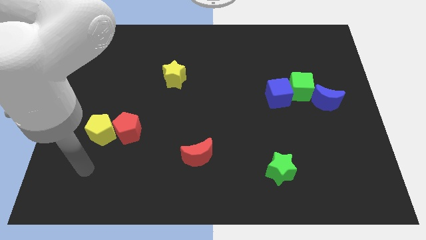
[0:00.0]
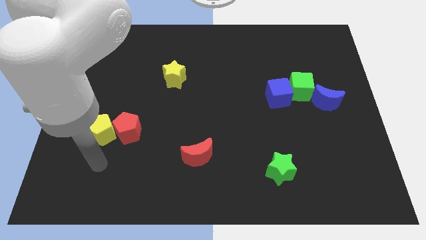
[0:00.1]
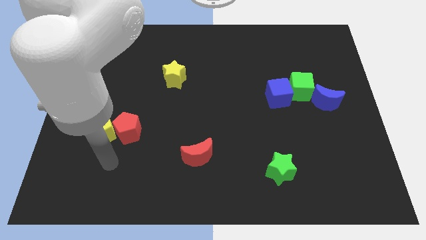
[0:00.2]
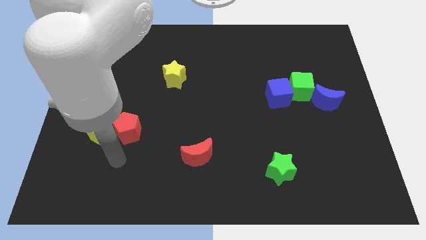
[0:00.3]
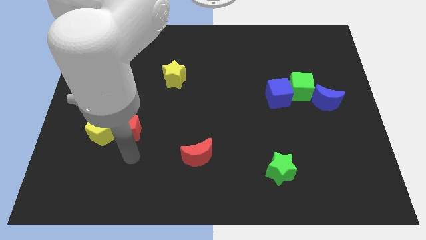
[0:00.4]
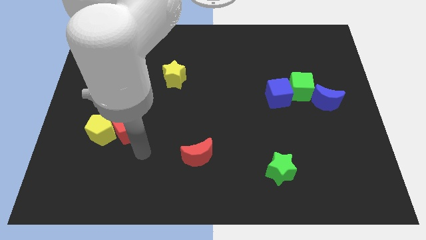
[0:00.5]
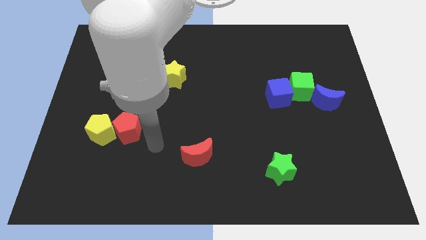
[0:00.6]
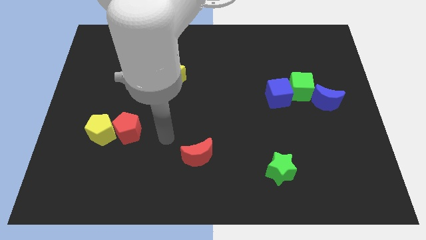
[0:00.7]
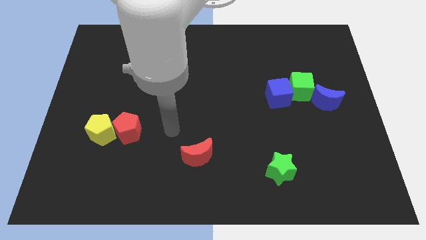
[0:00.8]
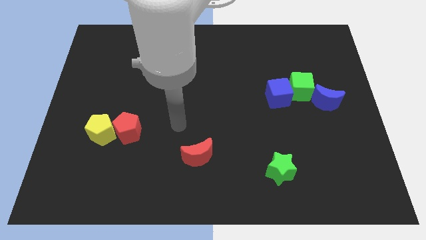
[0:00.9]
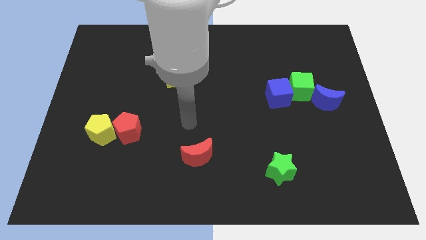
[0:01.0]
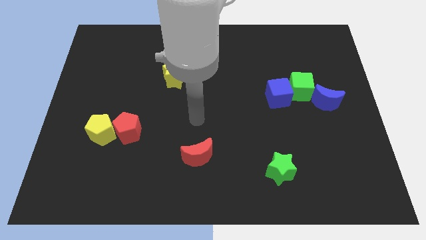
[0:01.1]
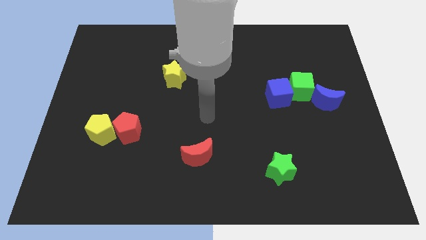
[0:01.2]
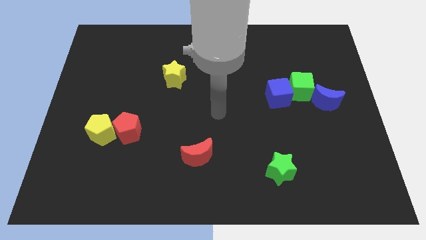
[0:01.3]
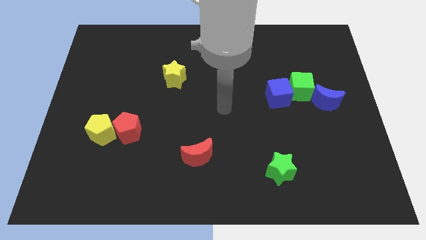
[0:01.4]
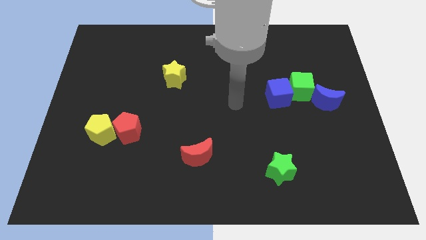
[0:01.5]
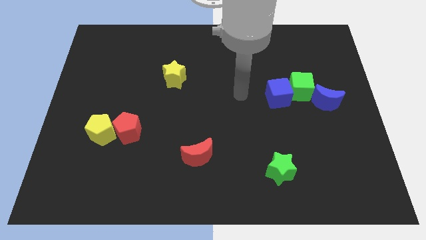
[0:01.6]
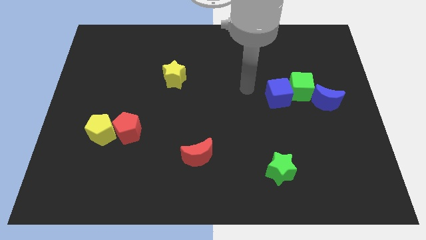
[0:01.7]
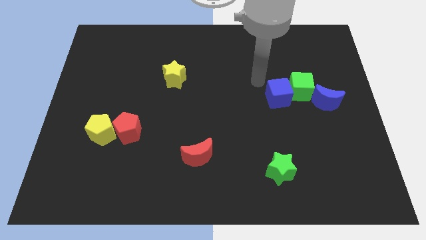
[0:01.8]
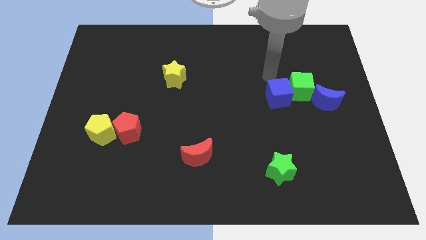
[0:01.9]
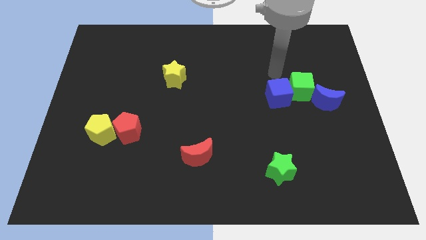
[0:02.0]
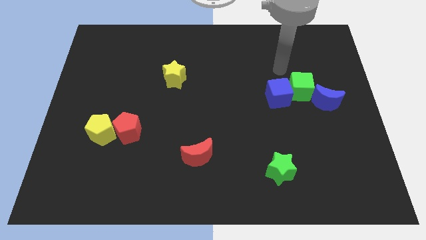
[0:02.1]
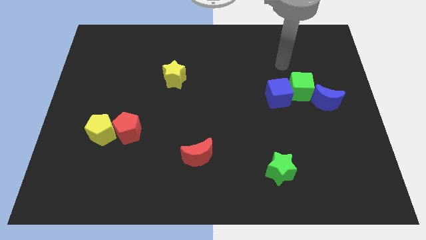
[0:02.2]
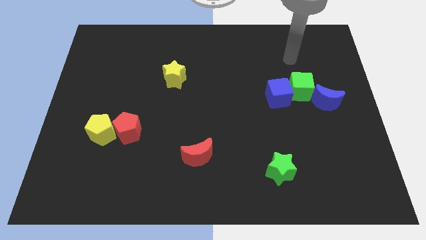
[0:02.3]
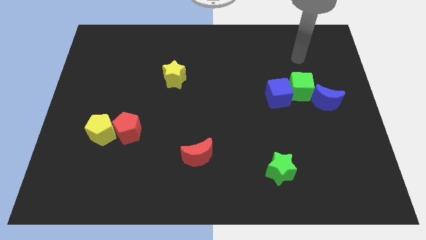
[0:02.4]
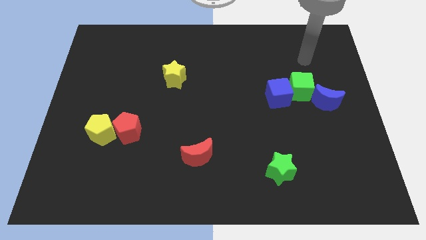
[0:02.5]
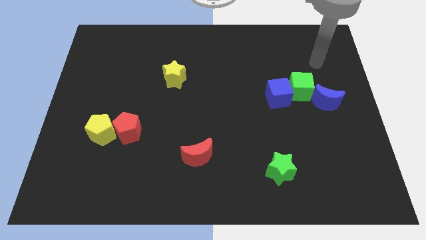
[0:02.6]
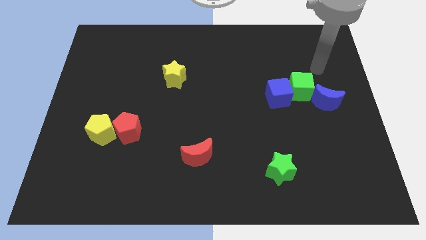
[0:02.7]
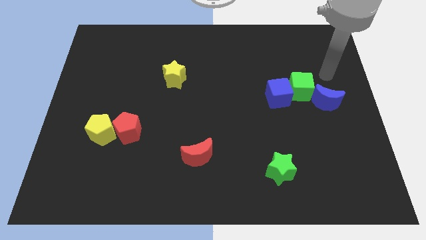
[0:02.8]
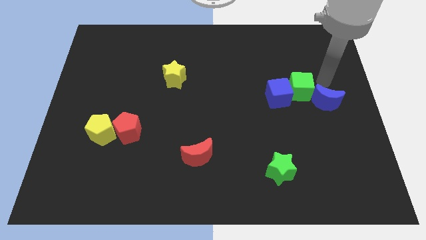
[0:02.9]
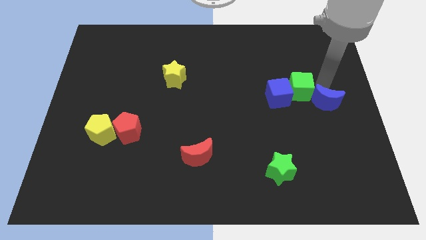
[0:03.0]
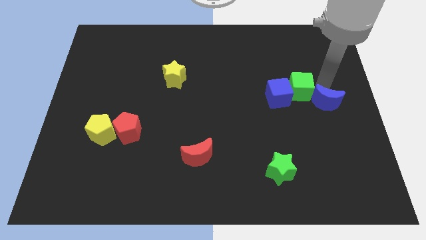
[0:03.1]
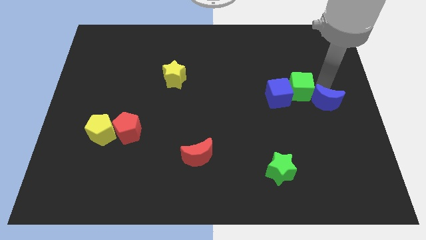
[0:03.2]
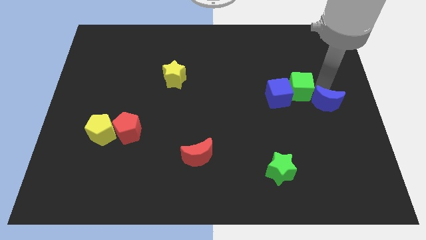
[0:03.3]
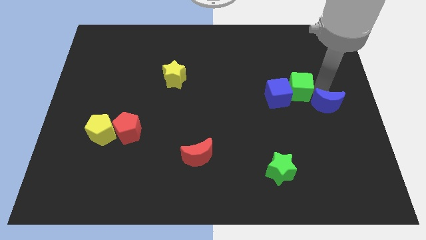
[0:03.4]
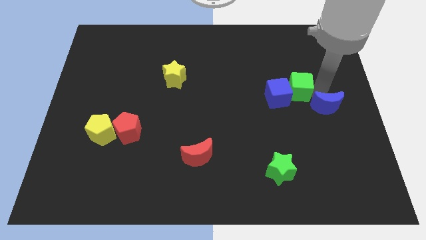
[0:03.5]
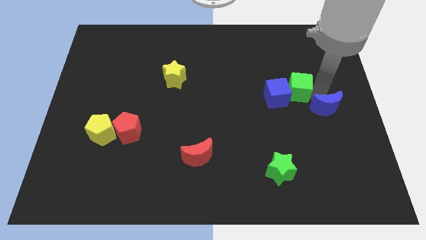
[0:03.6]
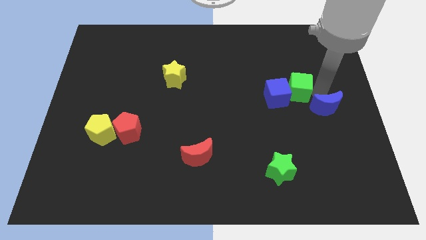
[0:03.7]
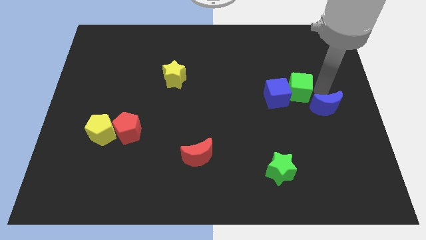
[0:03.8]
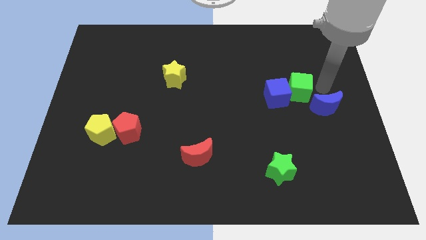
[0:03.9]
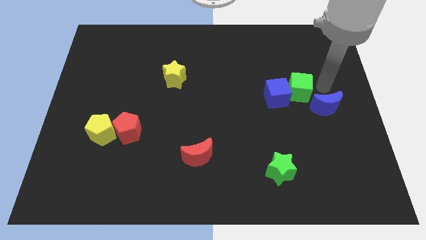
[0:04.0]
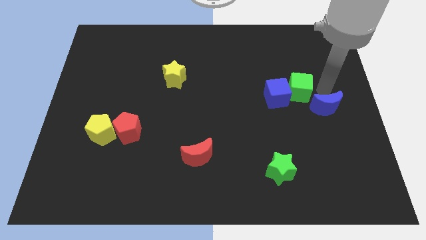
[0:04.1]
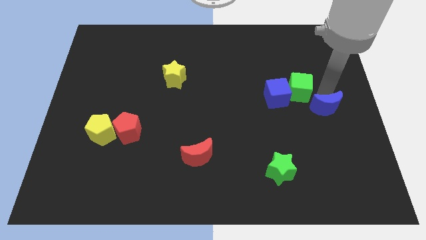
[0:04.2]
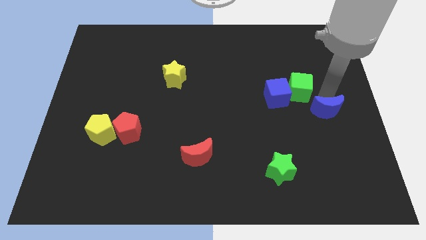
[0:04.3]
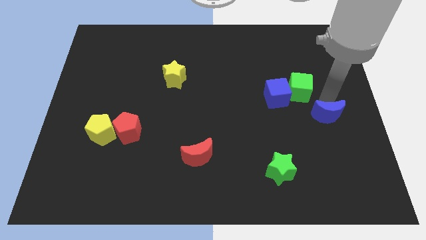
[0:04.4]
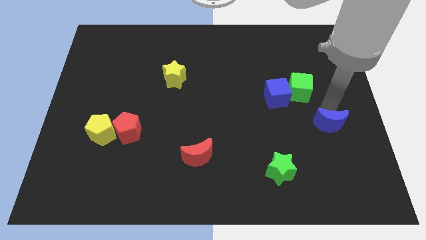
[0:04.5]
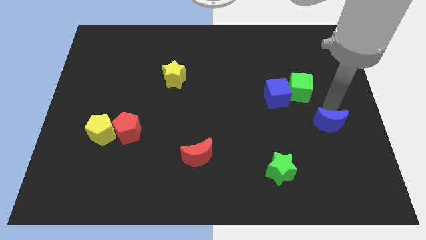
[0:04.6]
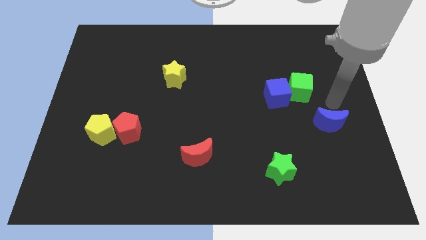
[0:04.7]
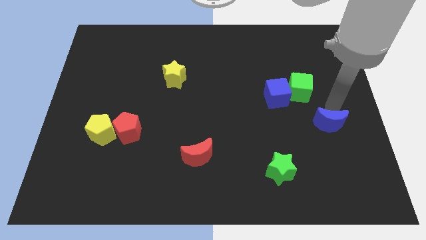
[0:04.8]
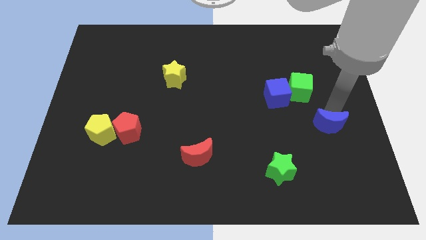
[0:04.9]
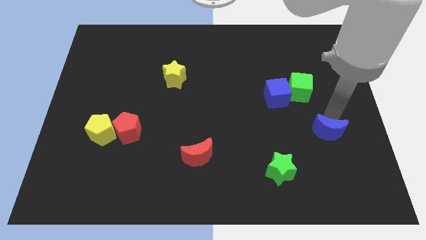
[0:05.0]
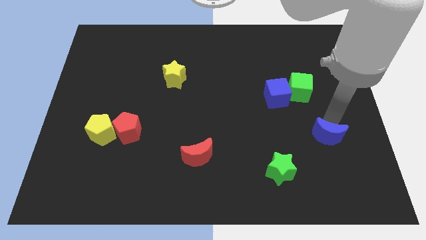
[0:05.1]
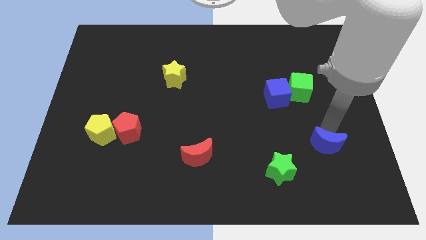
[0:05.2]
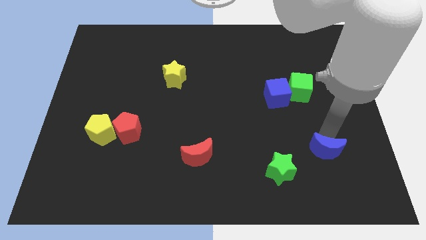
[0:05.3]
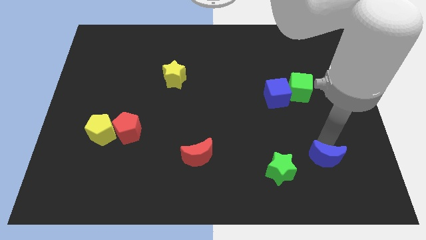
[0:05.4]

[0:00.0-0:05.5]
move the blue moon just right of the green star

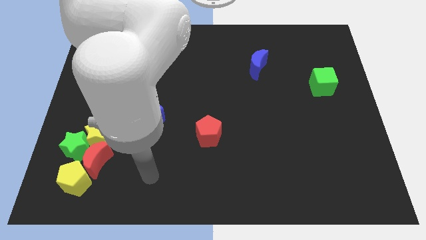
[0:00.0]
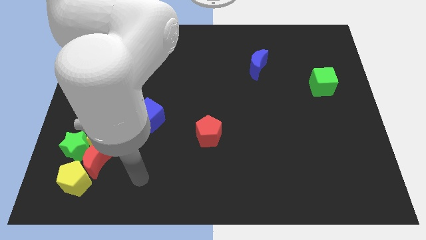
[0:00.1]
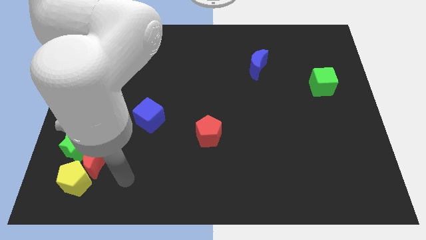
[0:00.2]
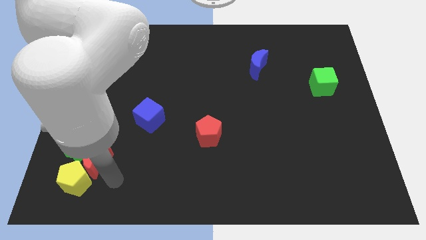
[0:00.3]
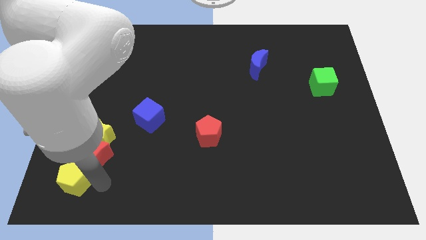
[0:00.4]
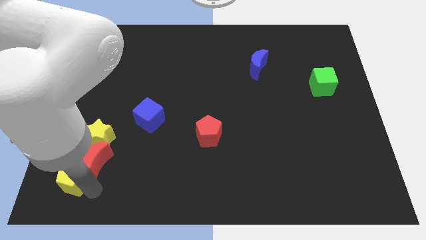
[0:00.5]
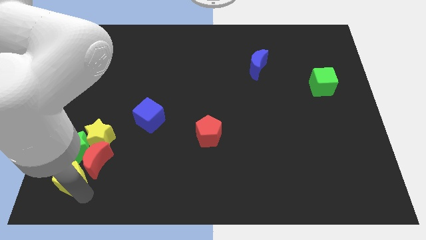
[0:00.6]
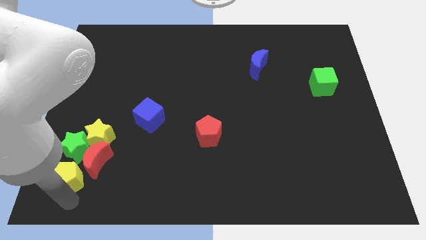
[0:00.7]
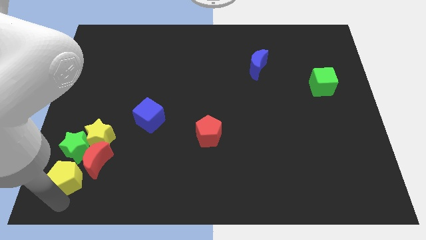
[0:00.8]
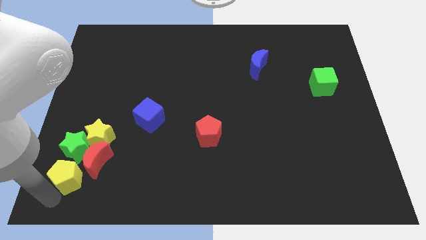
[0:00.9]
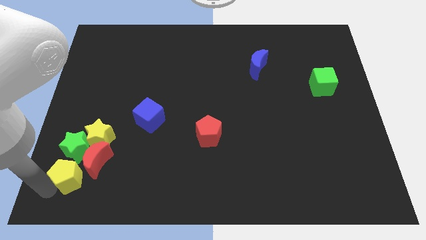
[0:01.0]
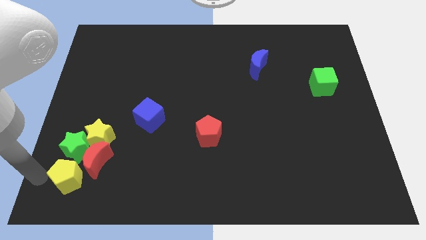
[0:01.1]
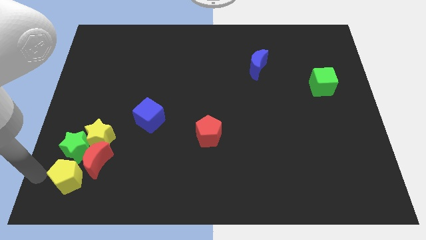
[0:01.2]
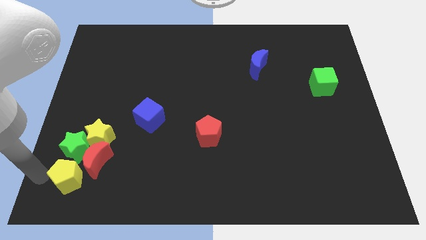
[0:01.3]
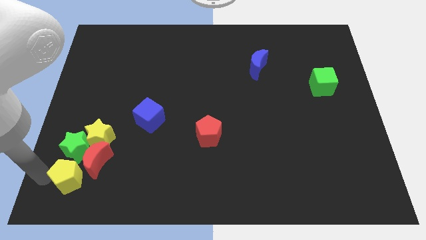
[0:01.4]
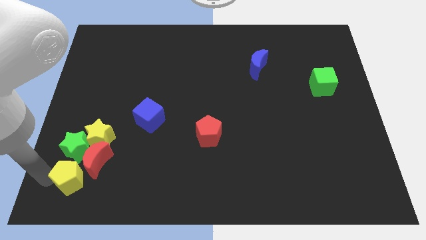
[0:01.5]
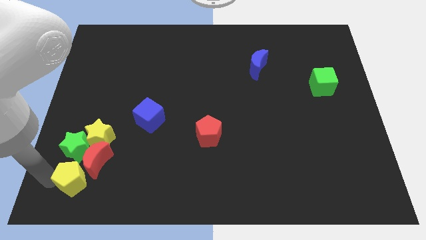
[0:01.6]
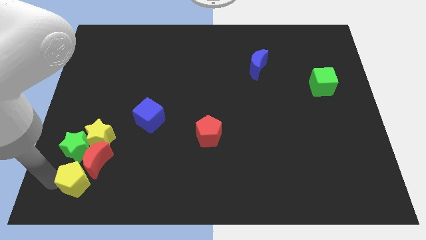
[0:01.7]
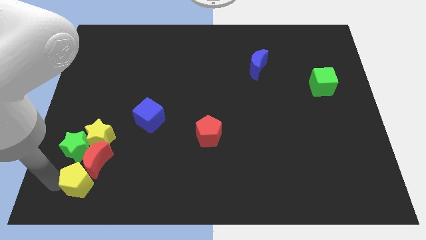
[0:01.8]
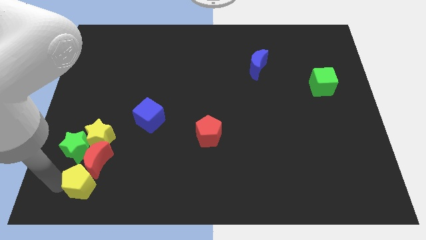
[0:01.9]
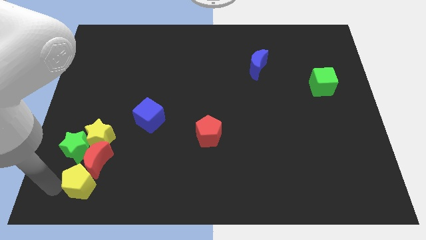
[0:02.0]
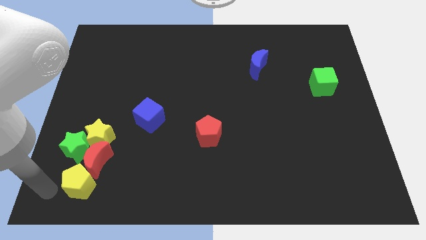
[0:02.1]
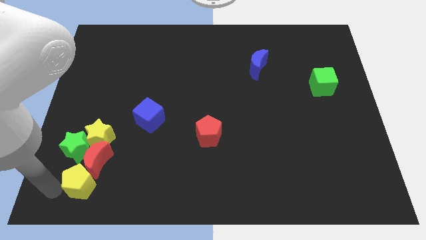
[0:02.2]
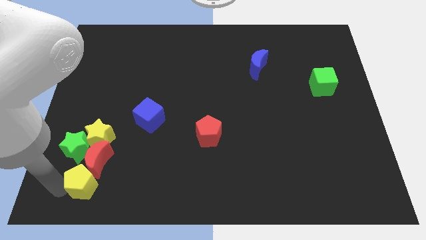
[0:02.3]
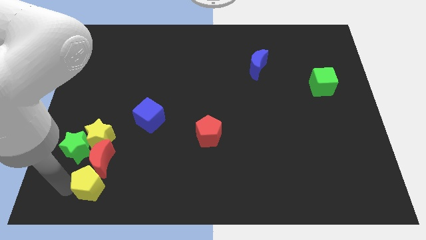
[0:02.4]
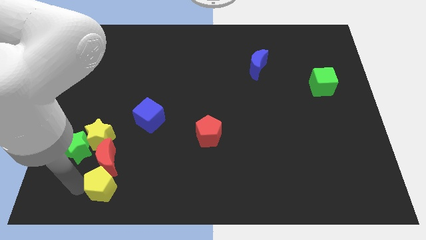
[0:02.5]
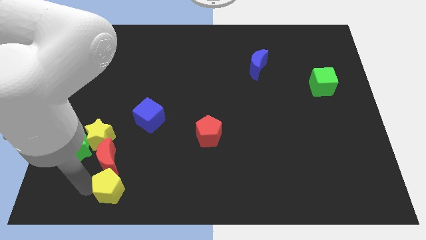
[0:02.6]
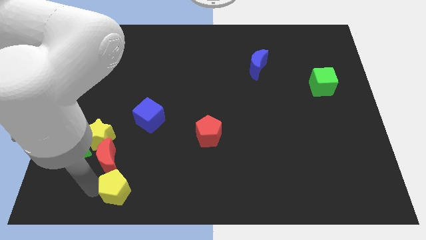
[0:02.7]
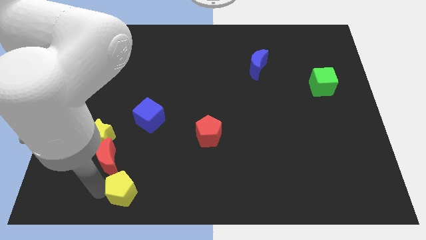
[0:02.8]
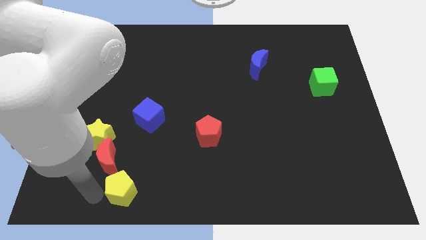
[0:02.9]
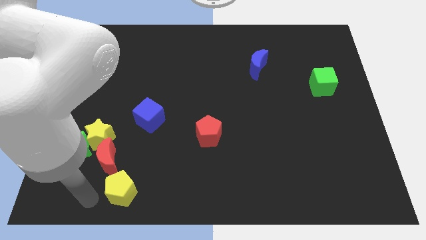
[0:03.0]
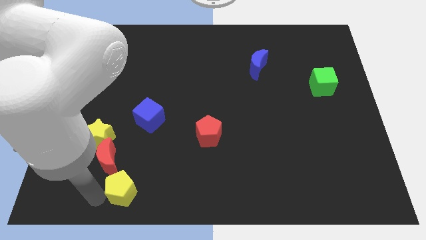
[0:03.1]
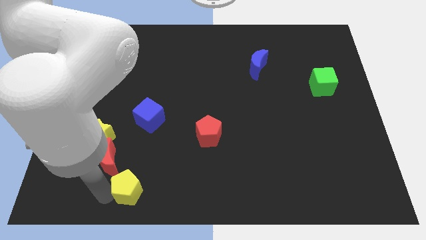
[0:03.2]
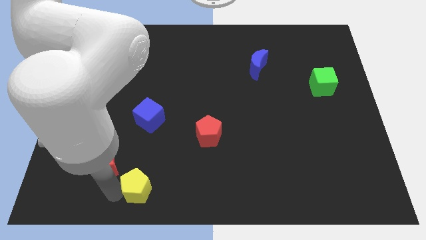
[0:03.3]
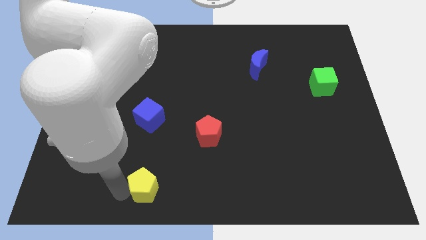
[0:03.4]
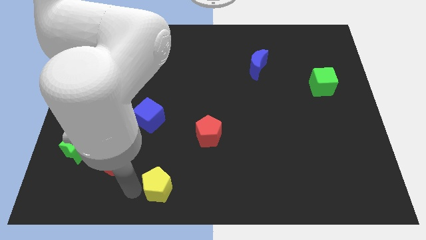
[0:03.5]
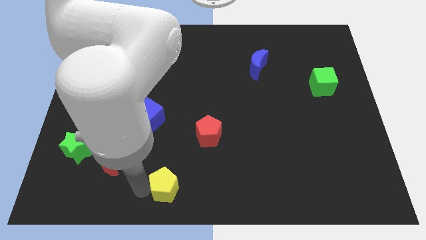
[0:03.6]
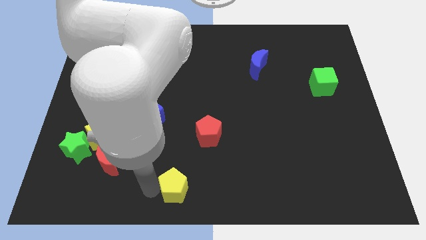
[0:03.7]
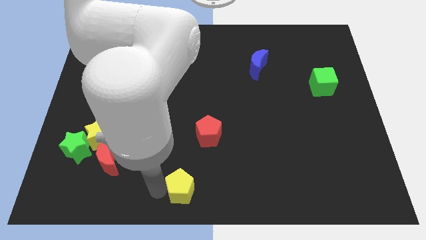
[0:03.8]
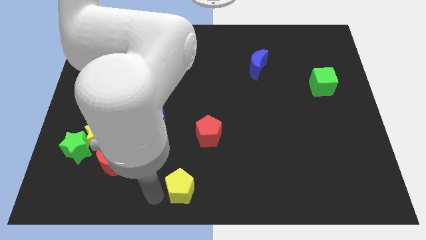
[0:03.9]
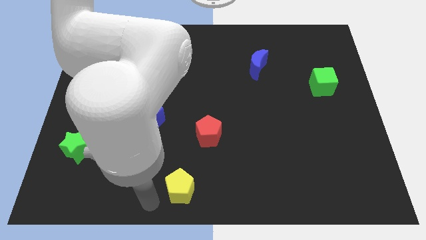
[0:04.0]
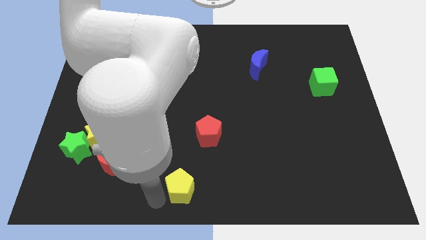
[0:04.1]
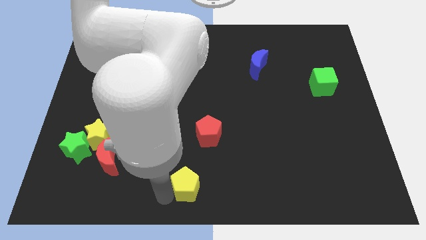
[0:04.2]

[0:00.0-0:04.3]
move the yellow pentagon to the bottom side of the red pentagon
